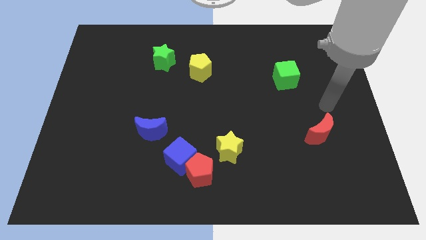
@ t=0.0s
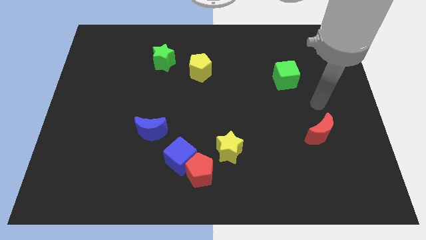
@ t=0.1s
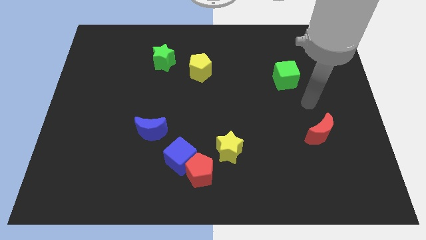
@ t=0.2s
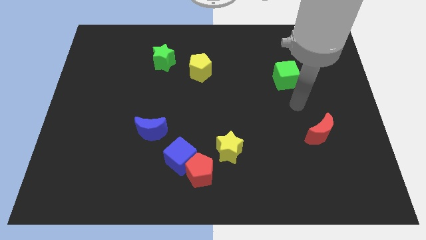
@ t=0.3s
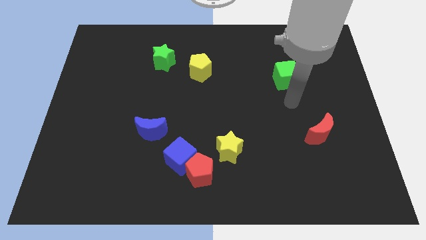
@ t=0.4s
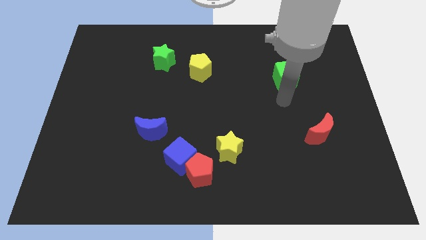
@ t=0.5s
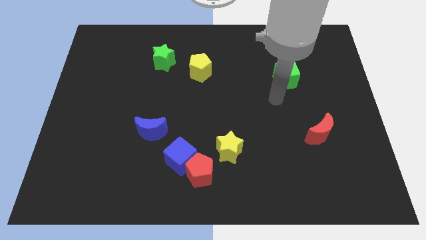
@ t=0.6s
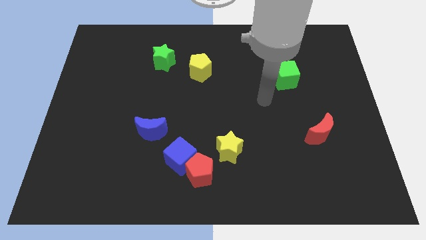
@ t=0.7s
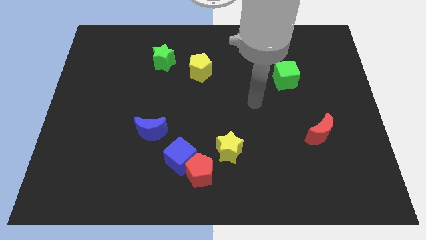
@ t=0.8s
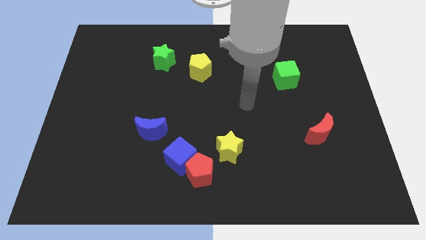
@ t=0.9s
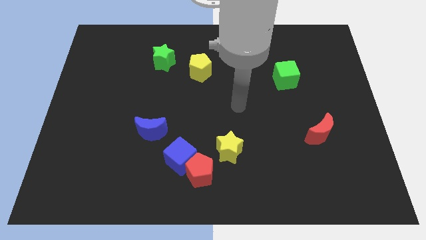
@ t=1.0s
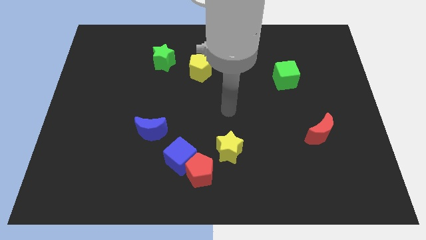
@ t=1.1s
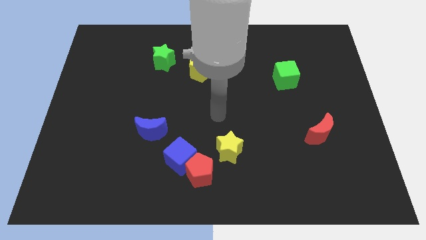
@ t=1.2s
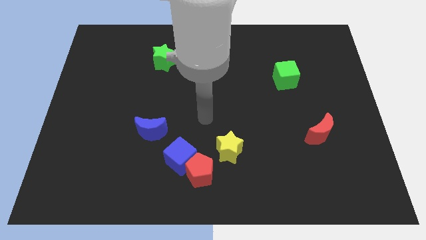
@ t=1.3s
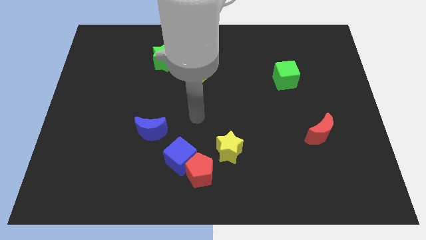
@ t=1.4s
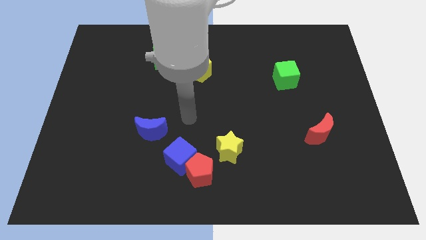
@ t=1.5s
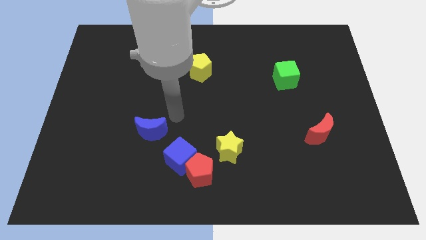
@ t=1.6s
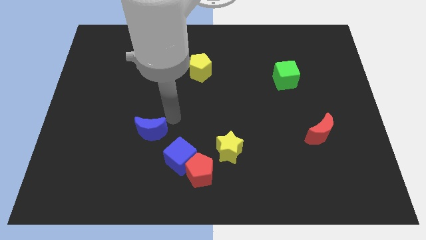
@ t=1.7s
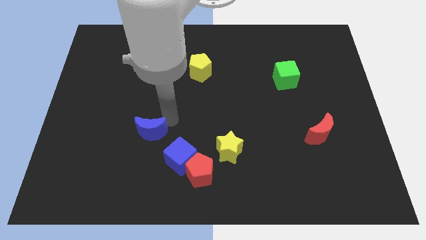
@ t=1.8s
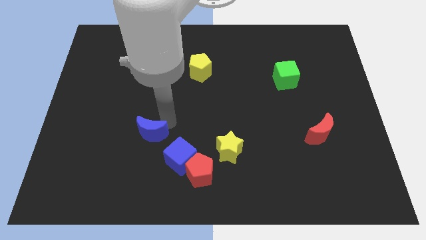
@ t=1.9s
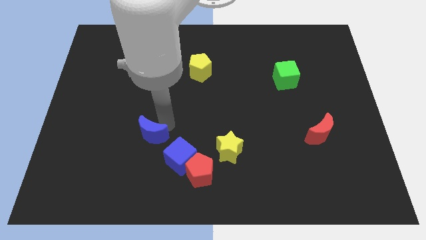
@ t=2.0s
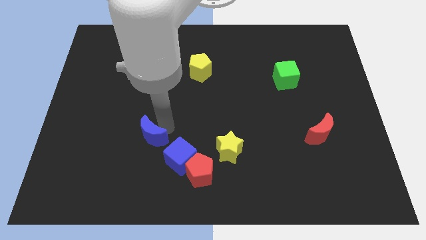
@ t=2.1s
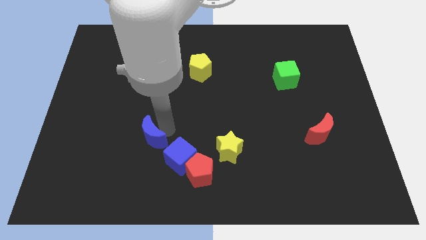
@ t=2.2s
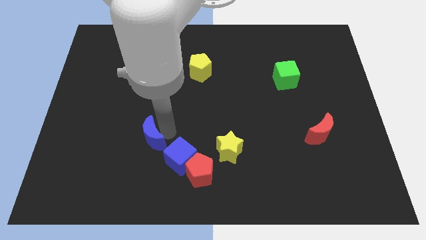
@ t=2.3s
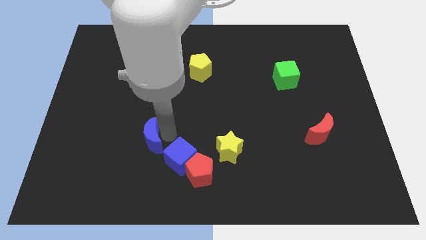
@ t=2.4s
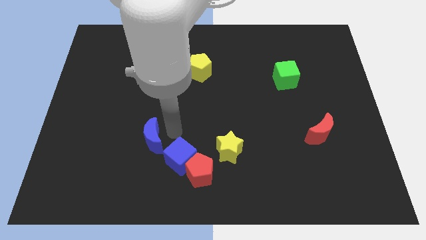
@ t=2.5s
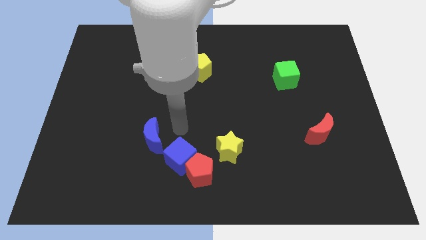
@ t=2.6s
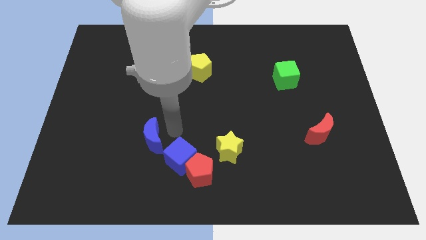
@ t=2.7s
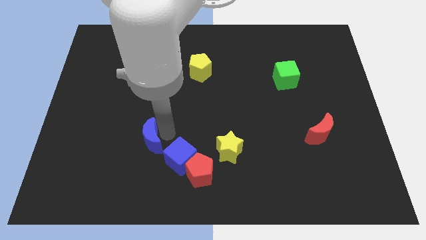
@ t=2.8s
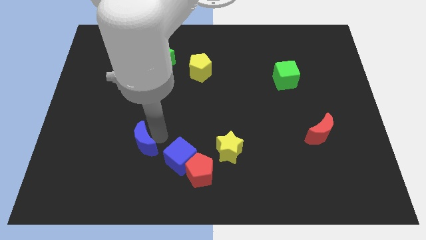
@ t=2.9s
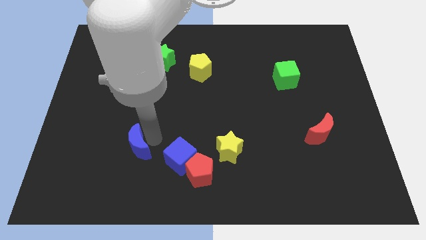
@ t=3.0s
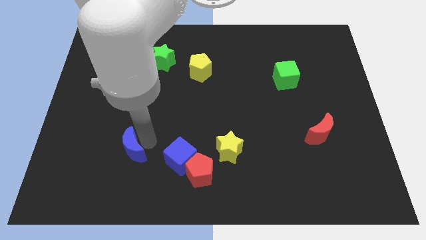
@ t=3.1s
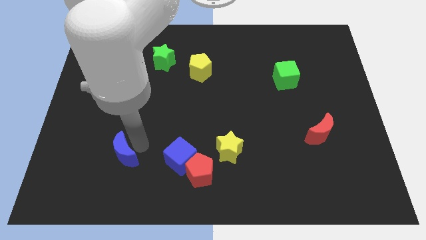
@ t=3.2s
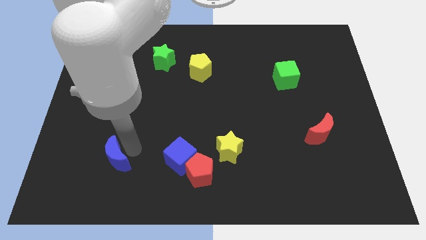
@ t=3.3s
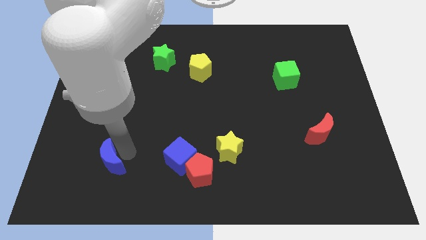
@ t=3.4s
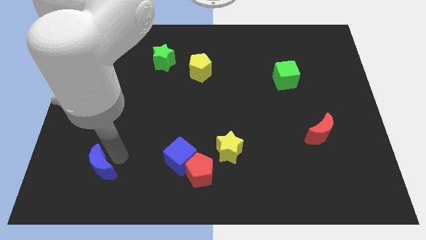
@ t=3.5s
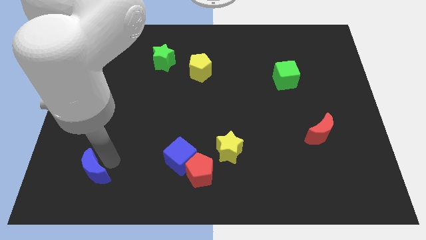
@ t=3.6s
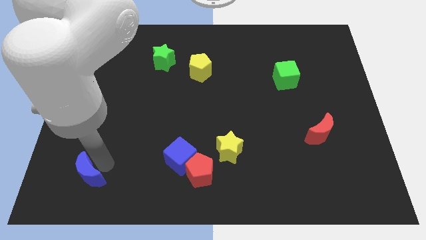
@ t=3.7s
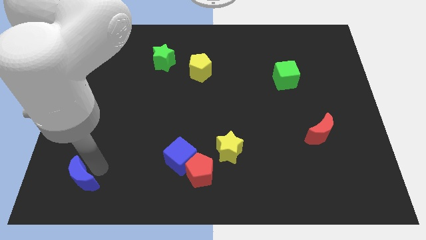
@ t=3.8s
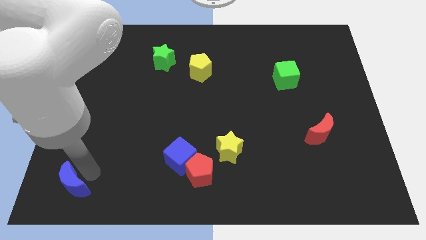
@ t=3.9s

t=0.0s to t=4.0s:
push the blue moon to the bottom left corner

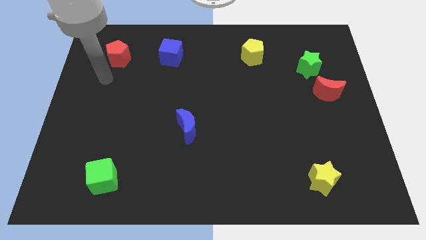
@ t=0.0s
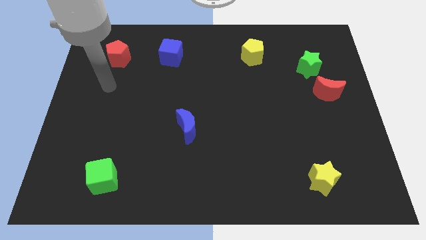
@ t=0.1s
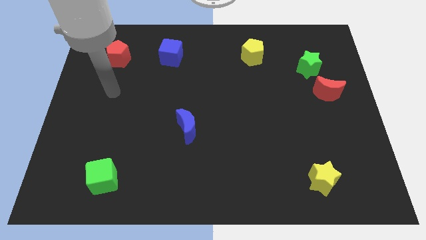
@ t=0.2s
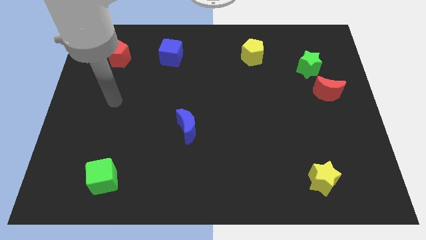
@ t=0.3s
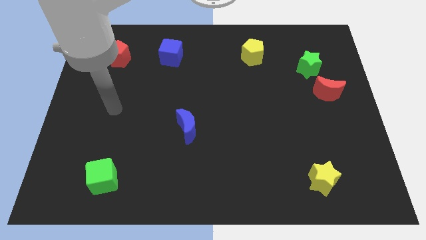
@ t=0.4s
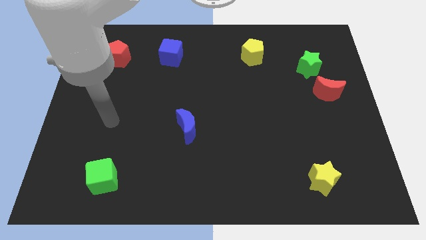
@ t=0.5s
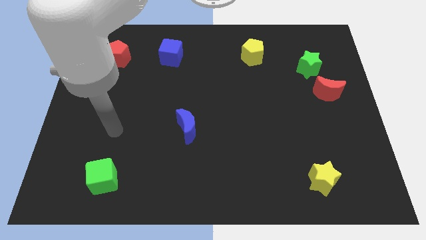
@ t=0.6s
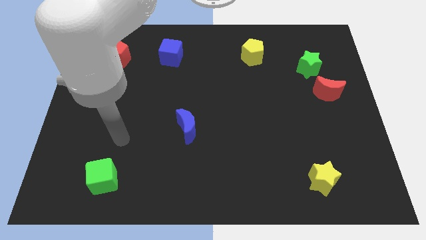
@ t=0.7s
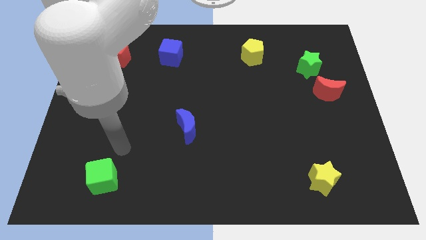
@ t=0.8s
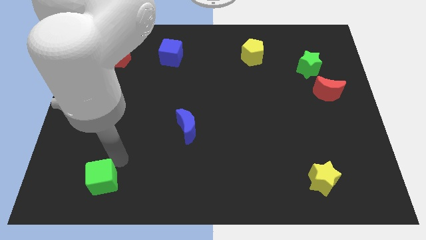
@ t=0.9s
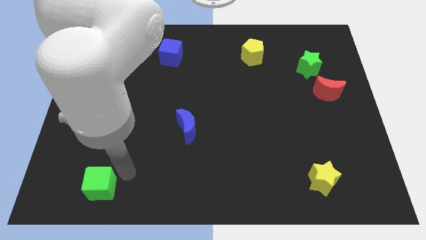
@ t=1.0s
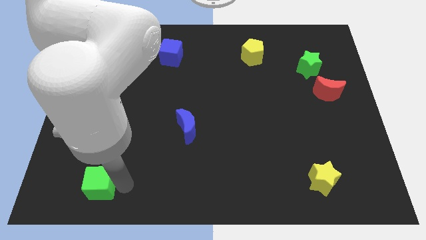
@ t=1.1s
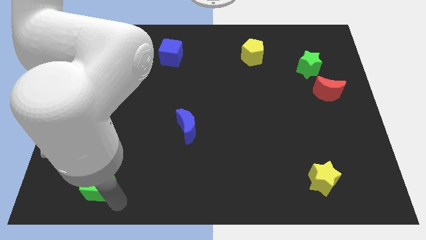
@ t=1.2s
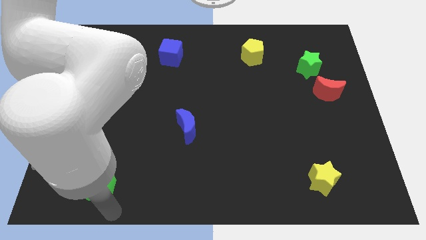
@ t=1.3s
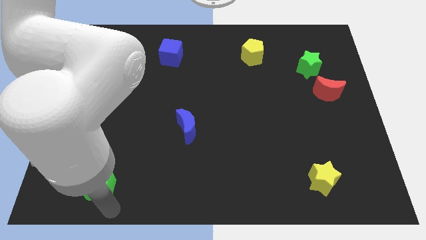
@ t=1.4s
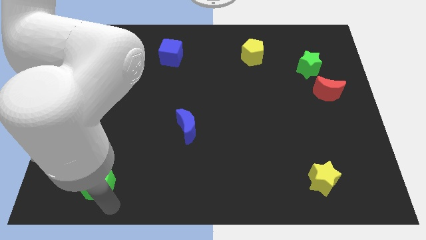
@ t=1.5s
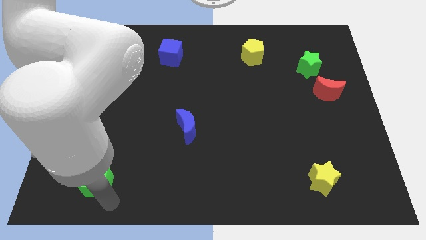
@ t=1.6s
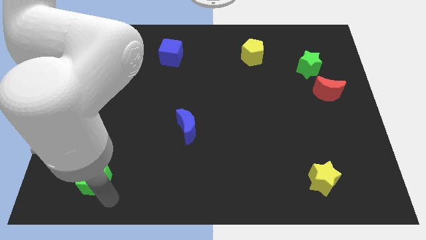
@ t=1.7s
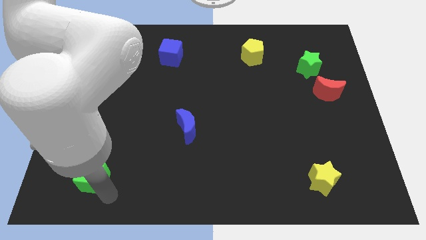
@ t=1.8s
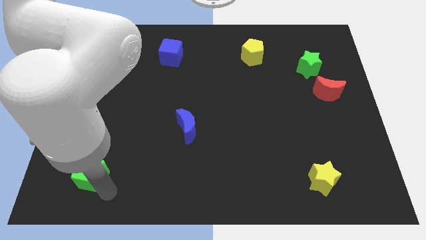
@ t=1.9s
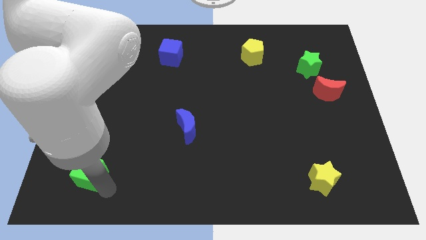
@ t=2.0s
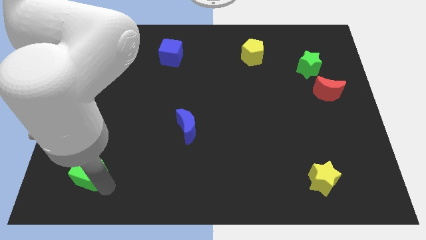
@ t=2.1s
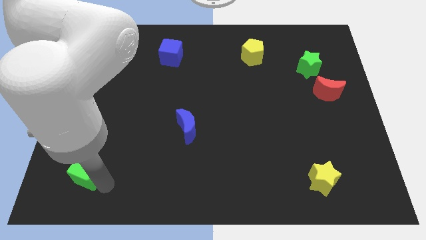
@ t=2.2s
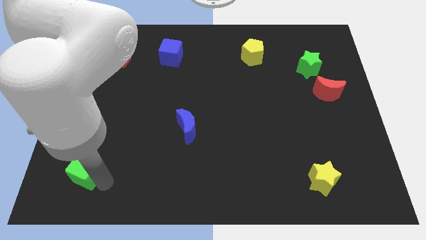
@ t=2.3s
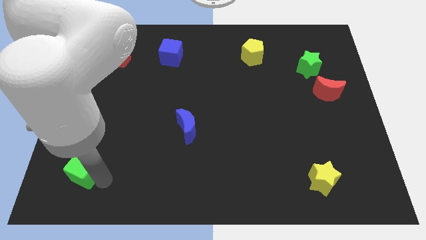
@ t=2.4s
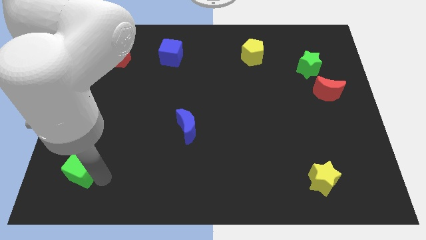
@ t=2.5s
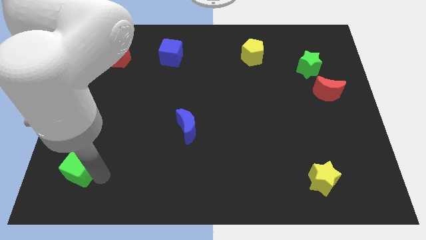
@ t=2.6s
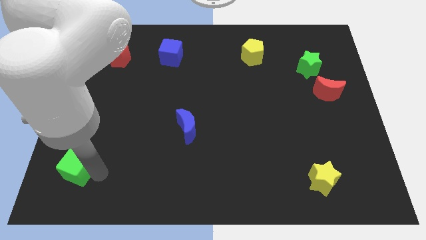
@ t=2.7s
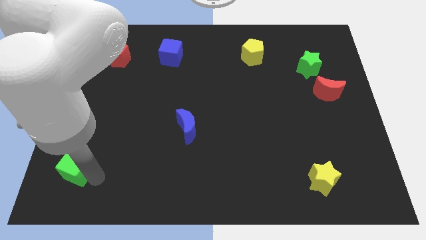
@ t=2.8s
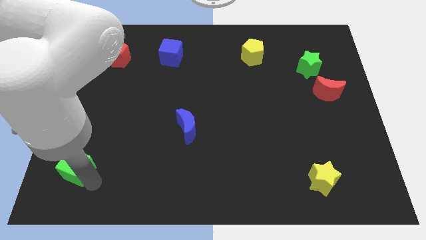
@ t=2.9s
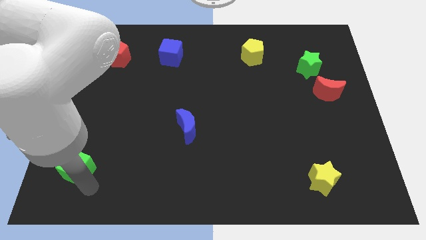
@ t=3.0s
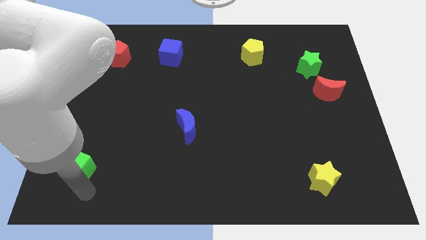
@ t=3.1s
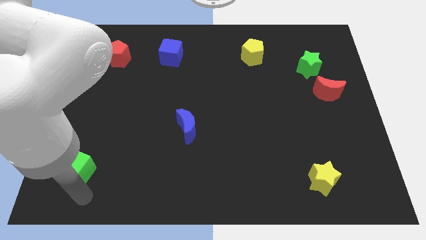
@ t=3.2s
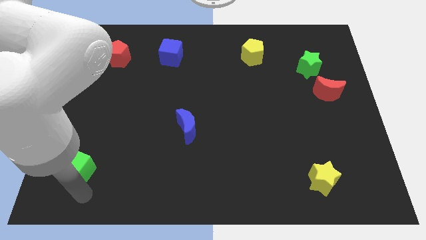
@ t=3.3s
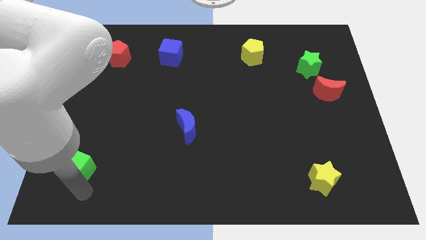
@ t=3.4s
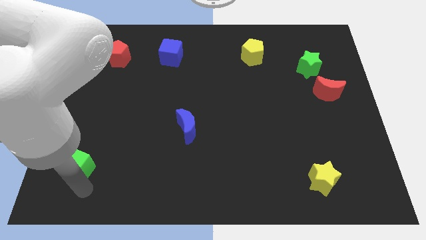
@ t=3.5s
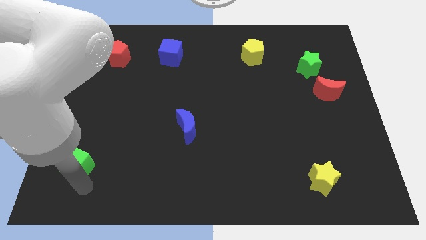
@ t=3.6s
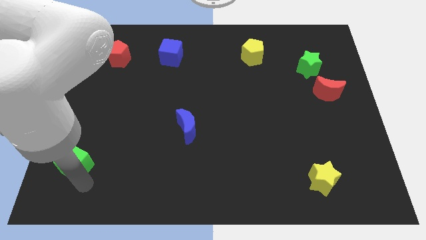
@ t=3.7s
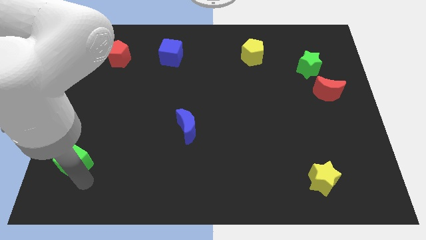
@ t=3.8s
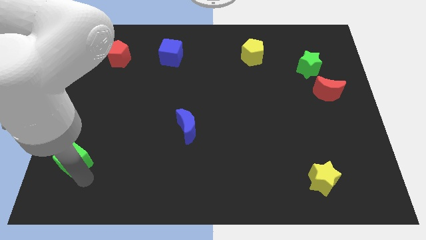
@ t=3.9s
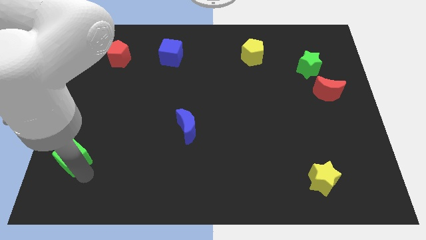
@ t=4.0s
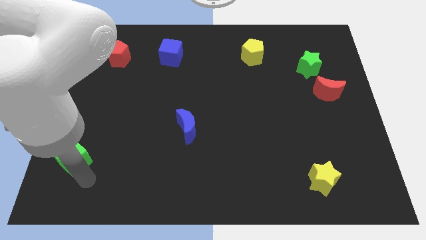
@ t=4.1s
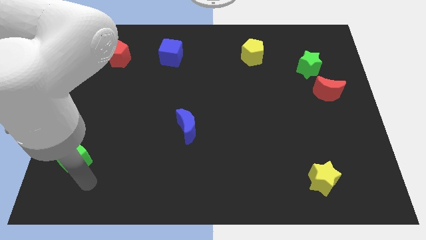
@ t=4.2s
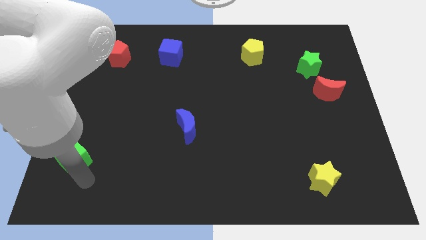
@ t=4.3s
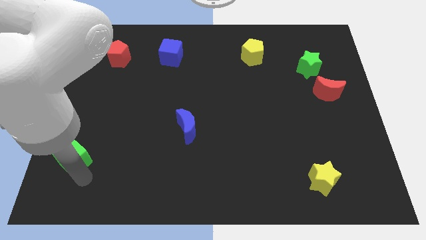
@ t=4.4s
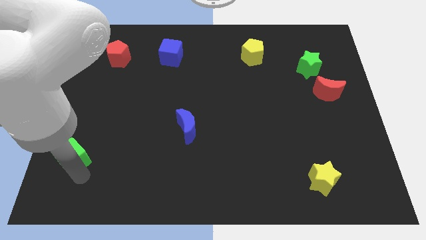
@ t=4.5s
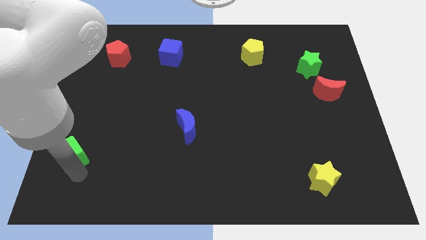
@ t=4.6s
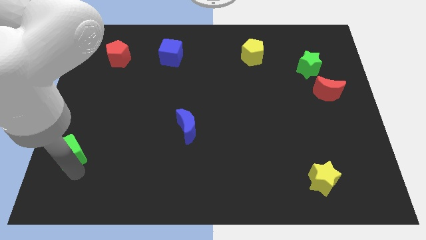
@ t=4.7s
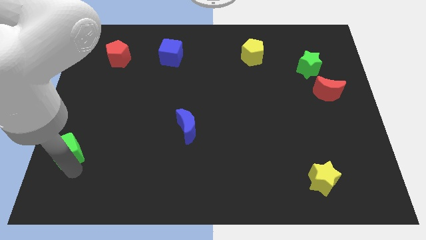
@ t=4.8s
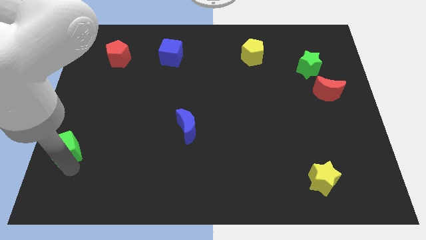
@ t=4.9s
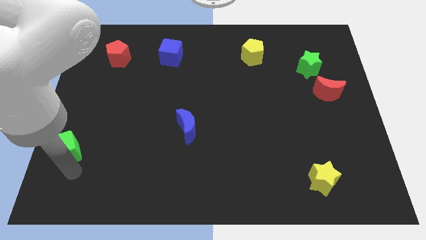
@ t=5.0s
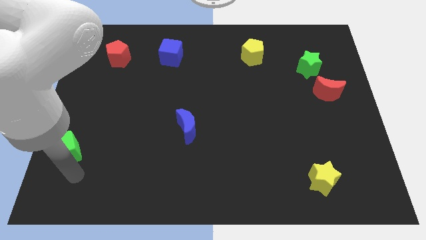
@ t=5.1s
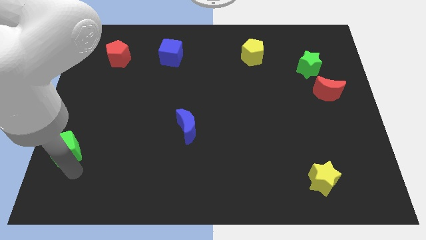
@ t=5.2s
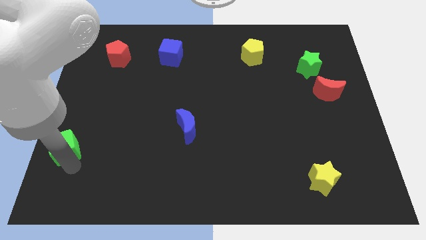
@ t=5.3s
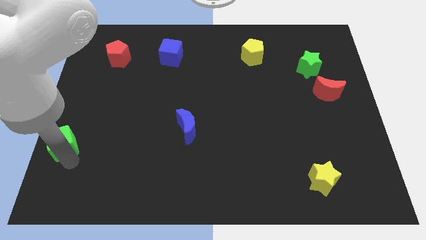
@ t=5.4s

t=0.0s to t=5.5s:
put the green cube to the center left
